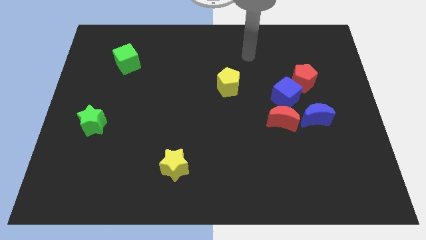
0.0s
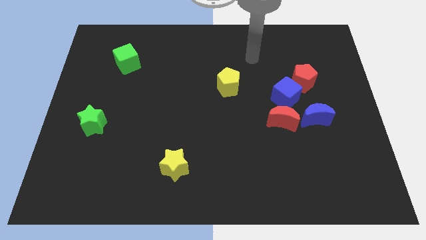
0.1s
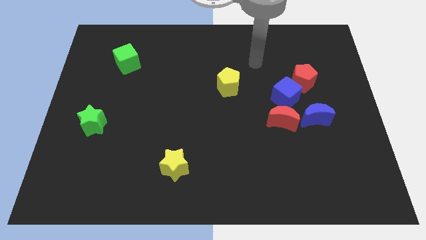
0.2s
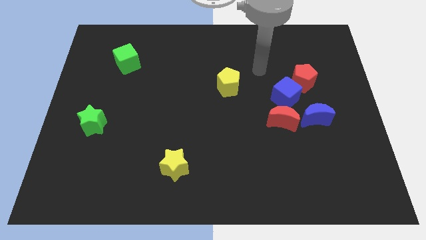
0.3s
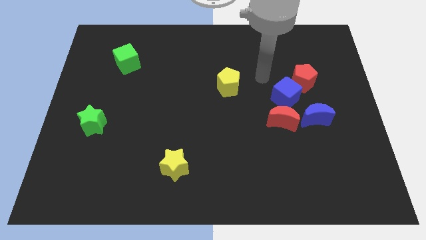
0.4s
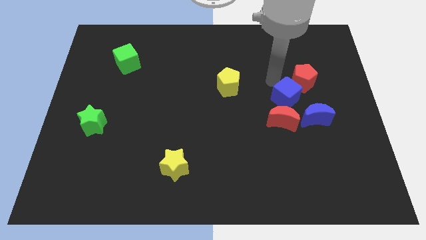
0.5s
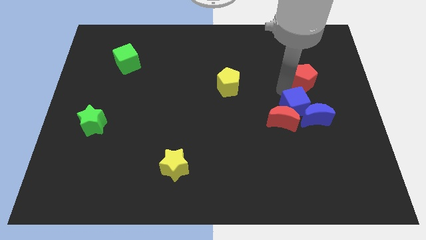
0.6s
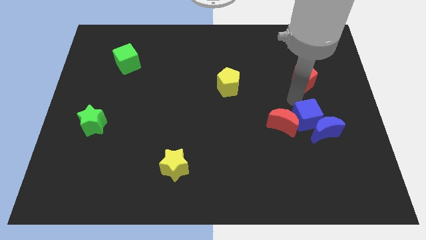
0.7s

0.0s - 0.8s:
move the red pentagon away from the blue cube

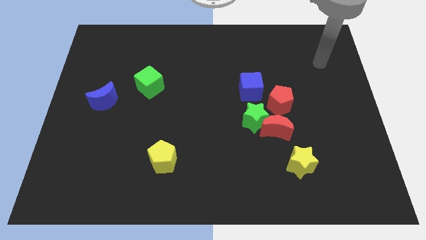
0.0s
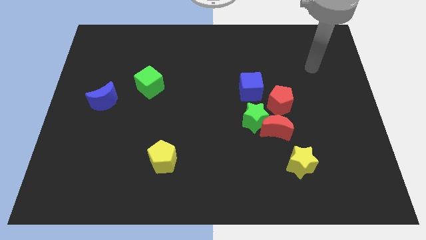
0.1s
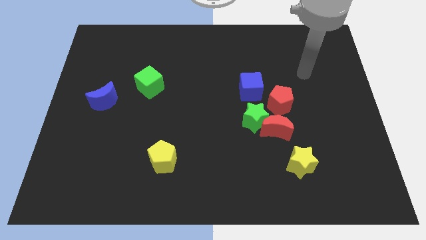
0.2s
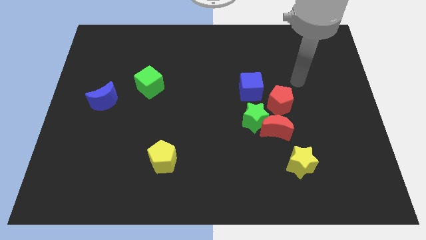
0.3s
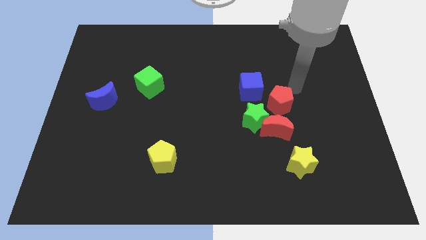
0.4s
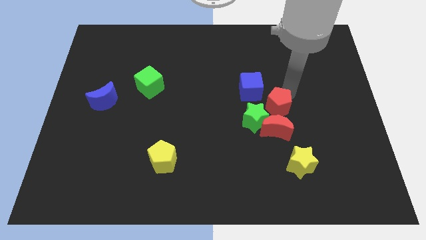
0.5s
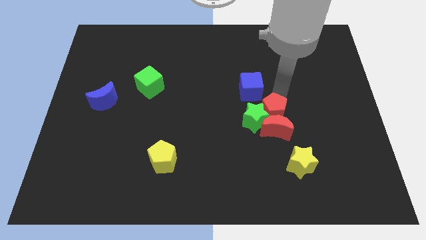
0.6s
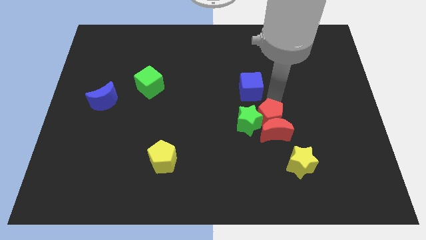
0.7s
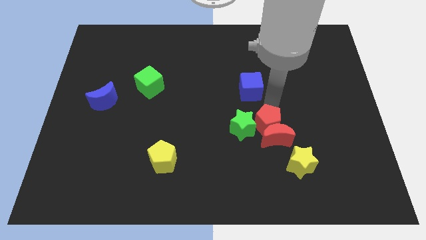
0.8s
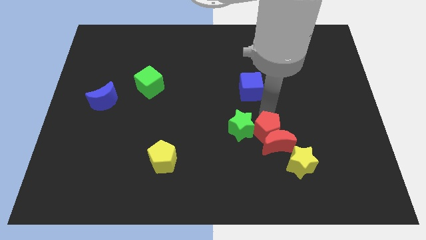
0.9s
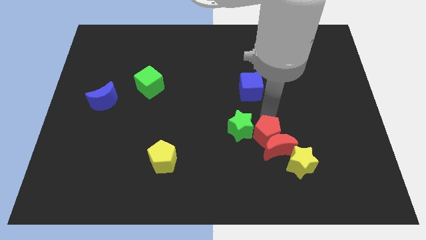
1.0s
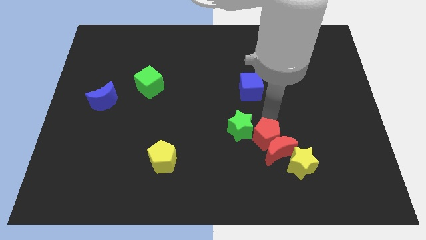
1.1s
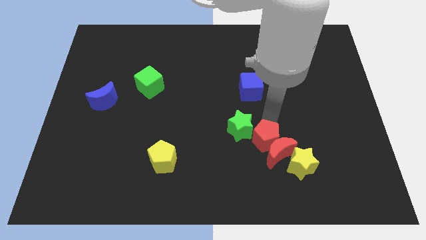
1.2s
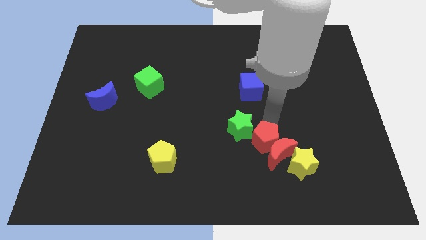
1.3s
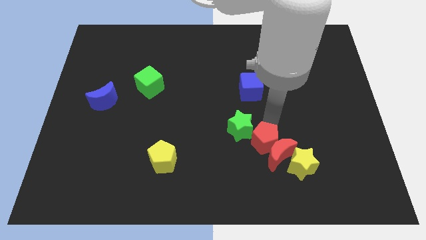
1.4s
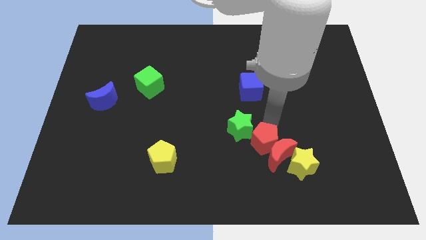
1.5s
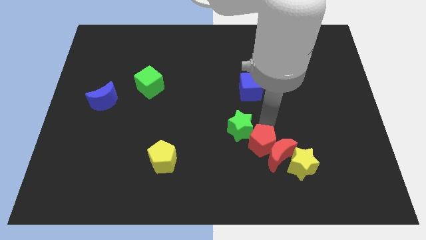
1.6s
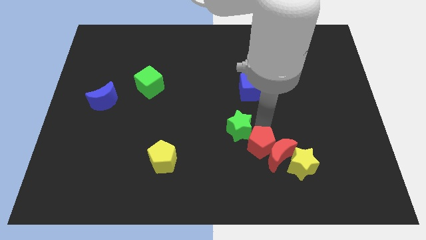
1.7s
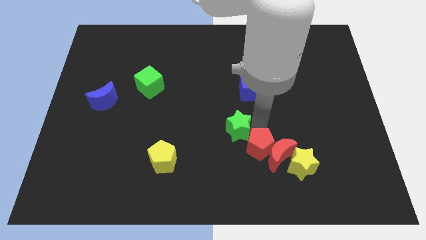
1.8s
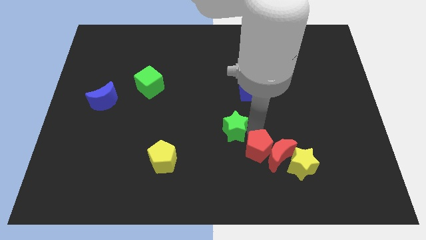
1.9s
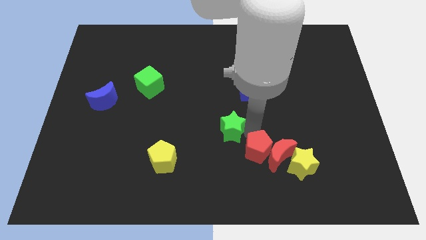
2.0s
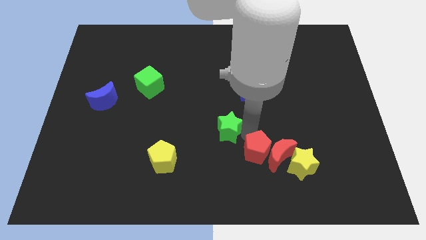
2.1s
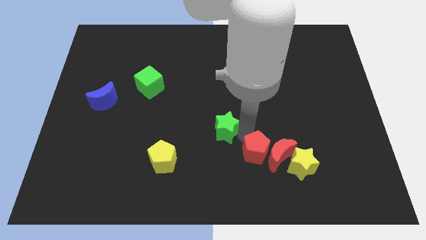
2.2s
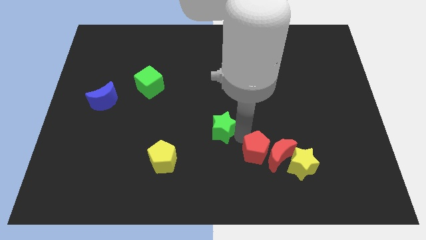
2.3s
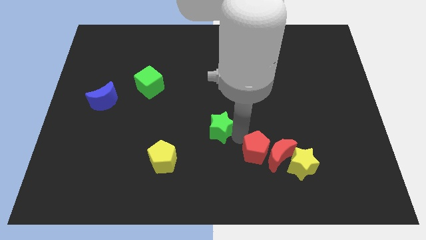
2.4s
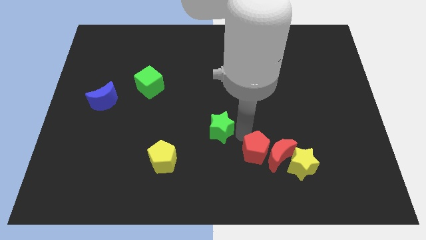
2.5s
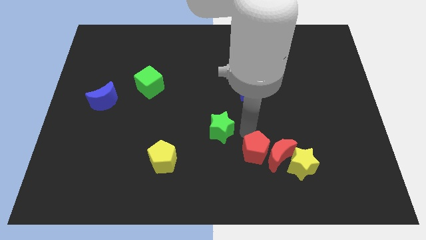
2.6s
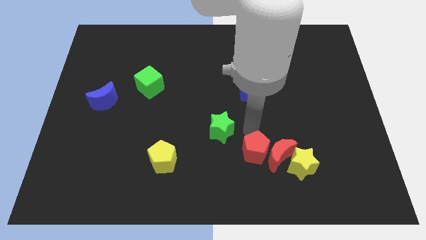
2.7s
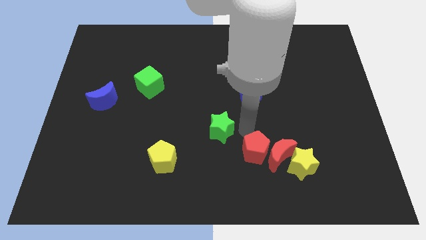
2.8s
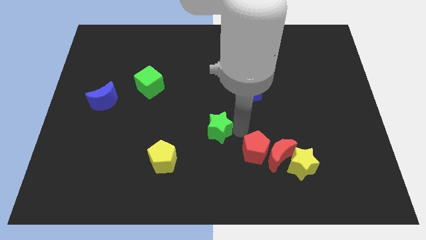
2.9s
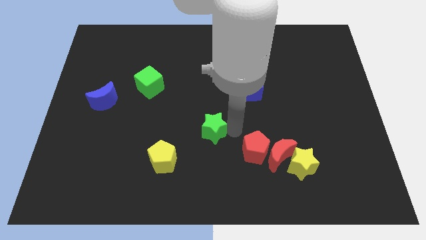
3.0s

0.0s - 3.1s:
pull the green star apart from the group of blocks

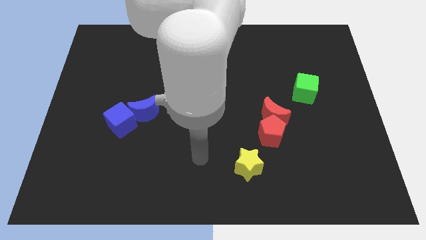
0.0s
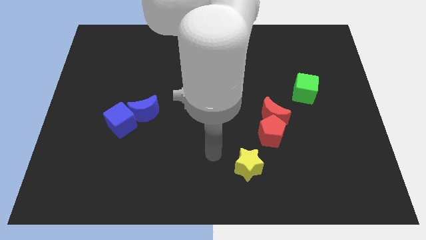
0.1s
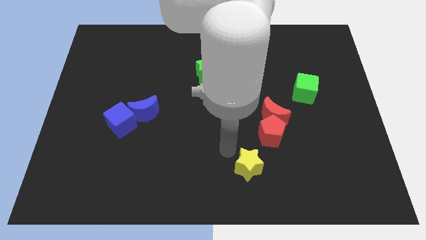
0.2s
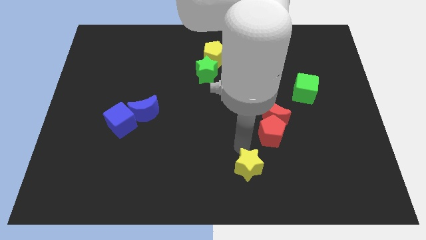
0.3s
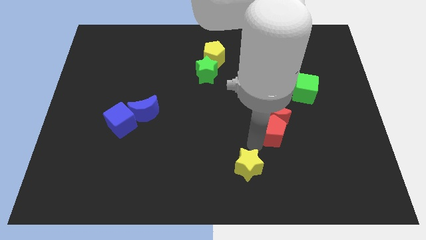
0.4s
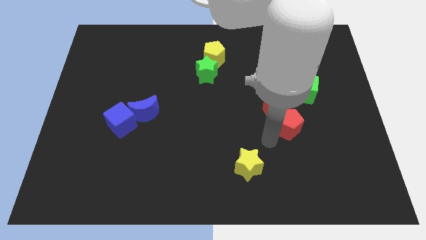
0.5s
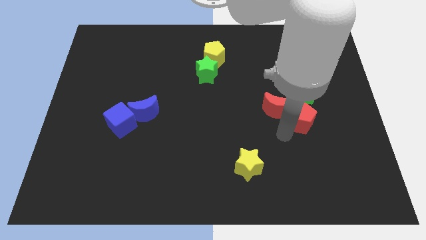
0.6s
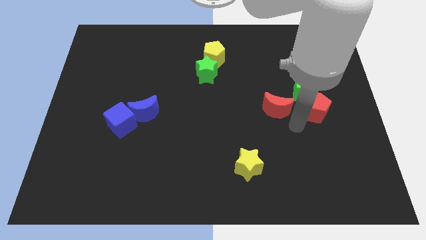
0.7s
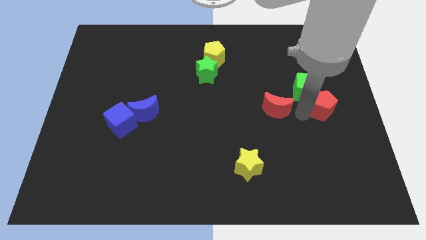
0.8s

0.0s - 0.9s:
separate the red moon from the red pentagon

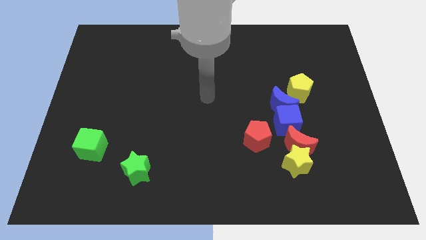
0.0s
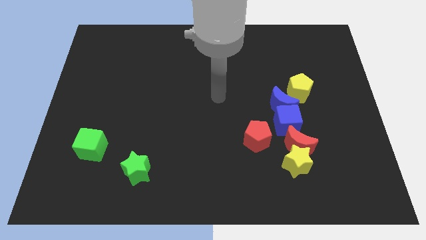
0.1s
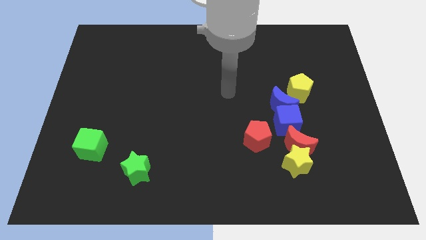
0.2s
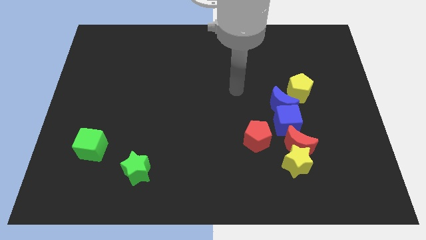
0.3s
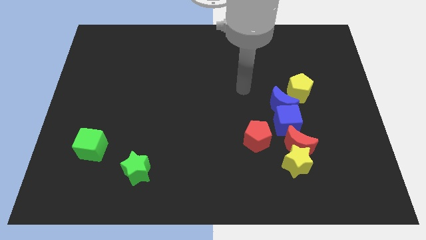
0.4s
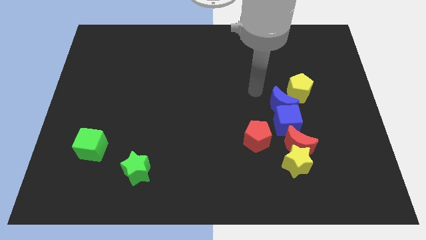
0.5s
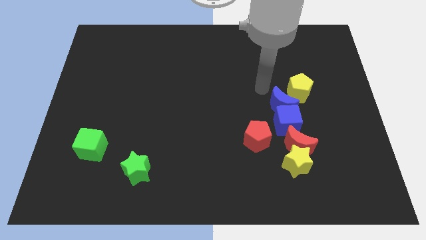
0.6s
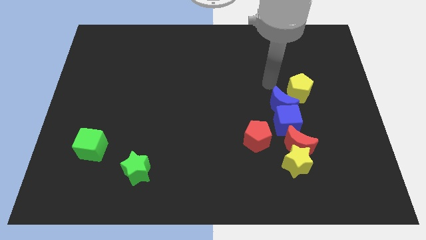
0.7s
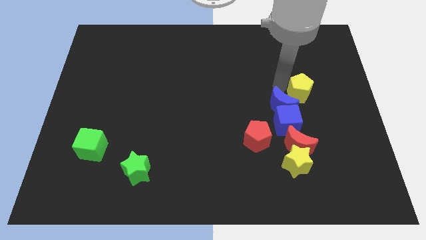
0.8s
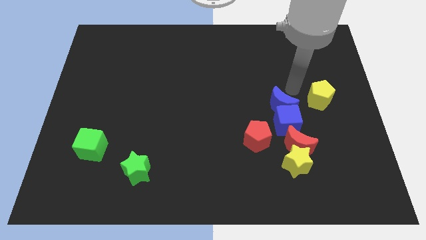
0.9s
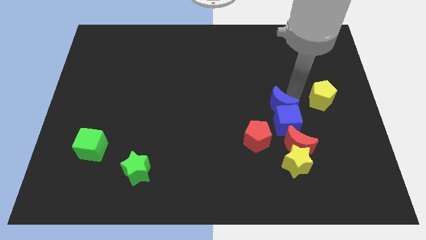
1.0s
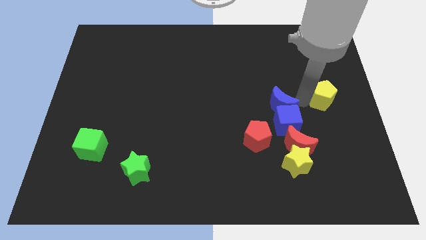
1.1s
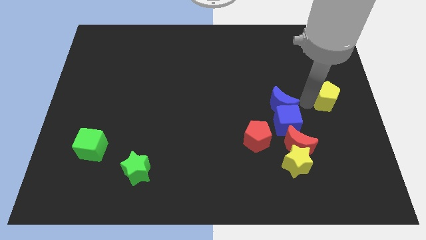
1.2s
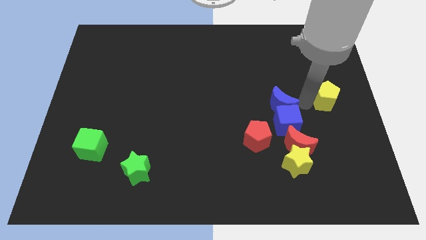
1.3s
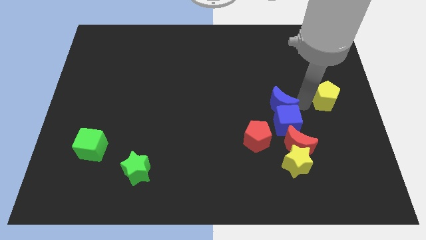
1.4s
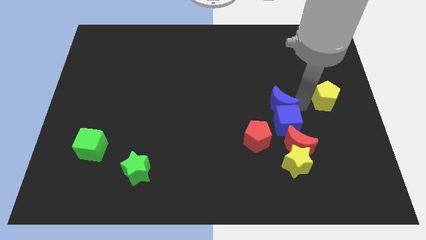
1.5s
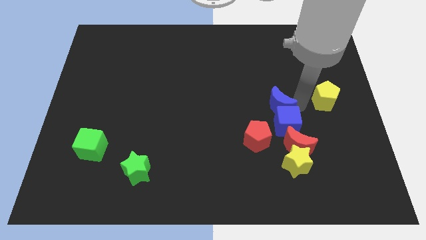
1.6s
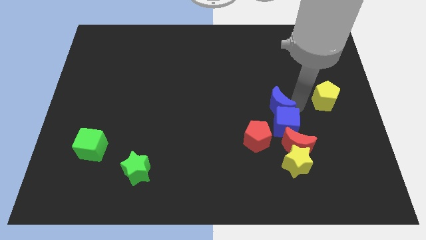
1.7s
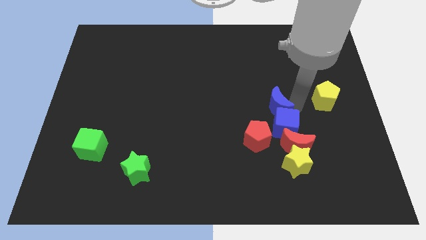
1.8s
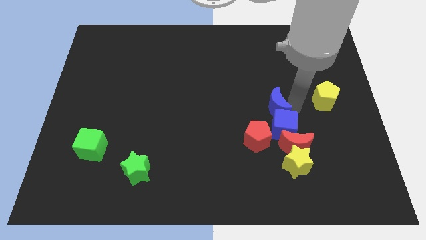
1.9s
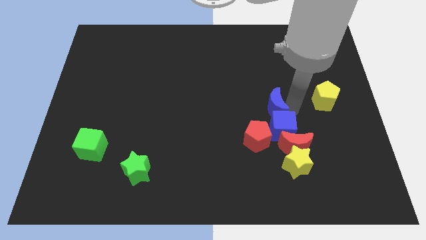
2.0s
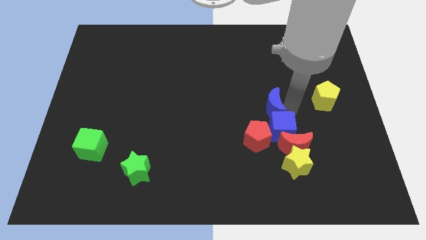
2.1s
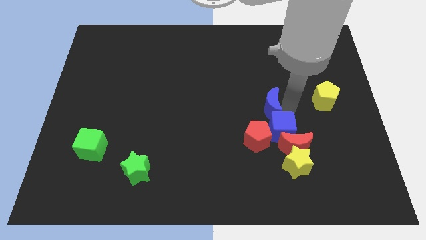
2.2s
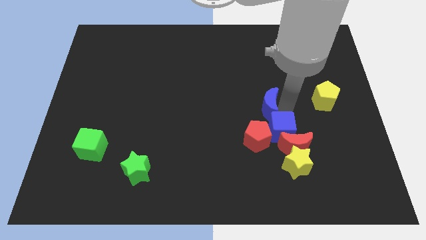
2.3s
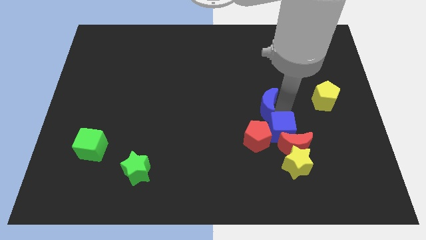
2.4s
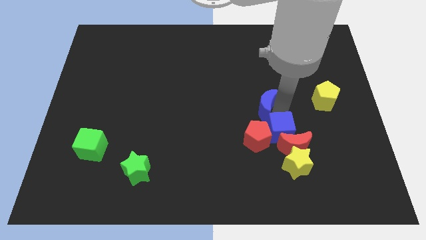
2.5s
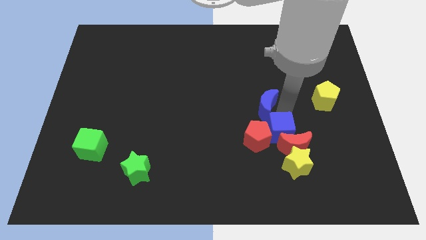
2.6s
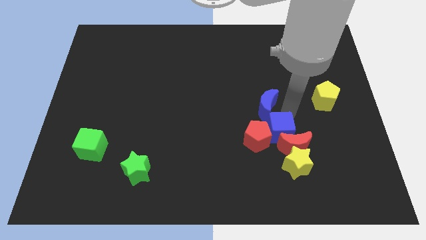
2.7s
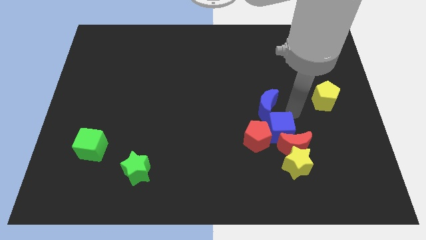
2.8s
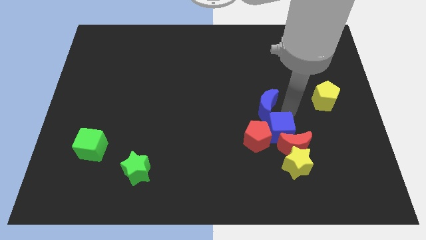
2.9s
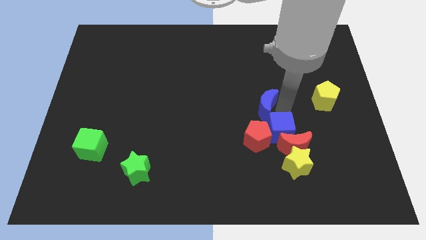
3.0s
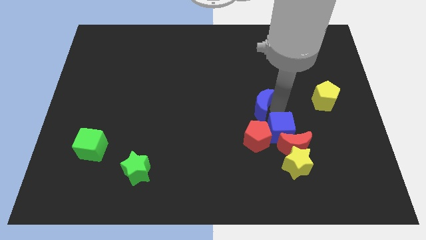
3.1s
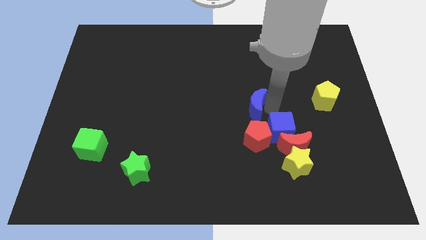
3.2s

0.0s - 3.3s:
pull the blue moon apart from the blue cube and yellow pentagon

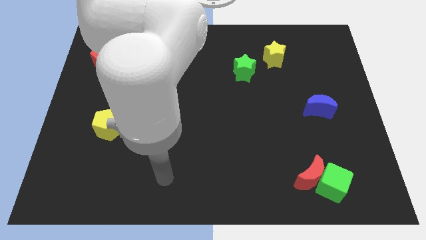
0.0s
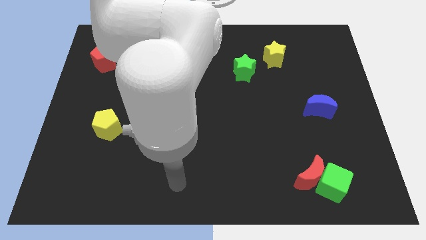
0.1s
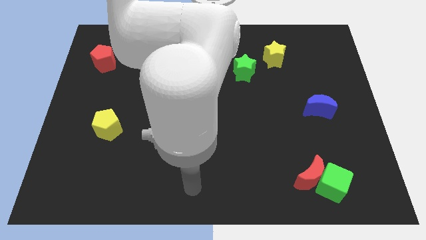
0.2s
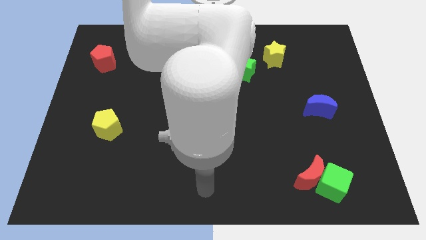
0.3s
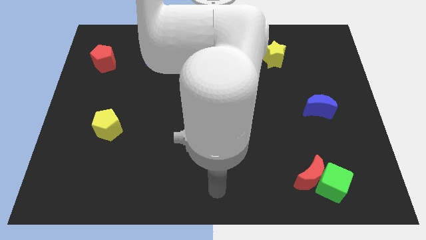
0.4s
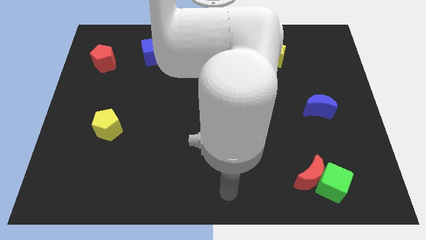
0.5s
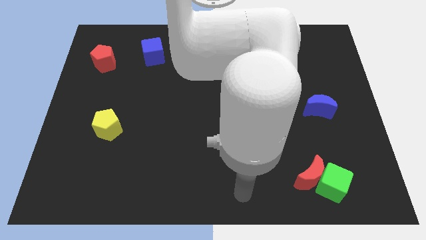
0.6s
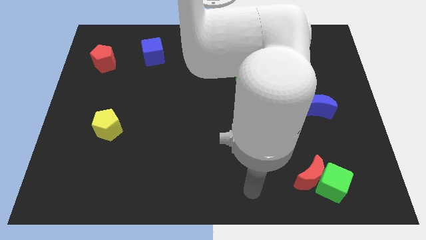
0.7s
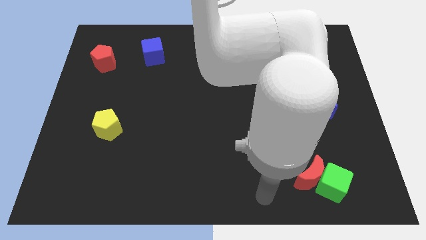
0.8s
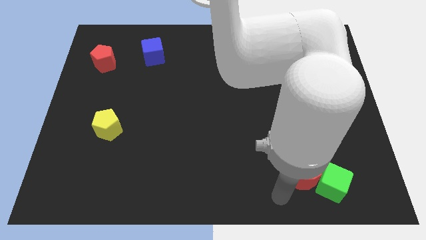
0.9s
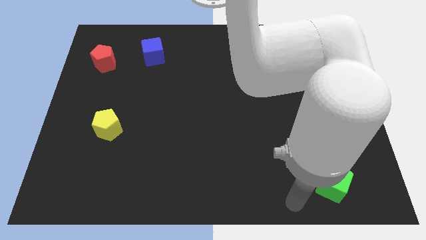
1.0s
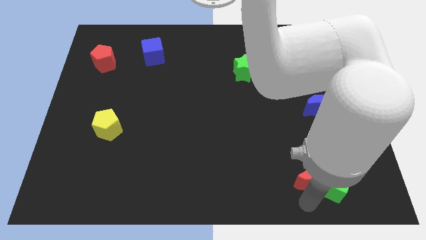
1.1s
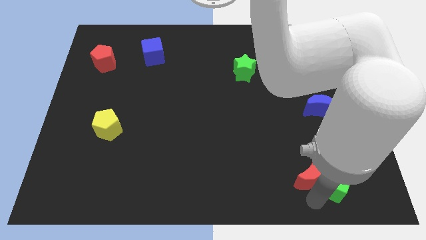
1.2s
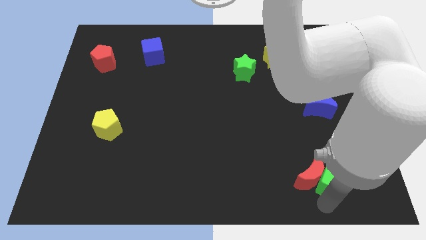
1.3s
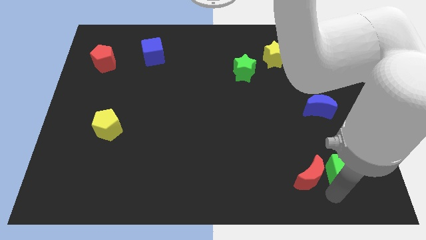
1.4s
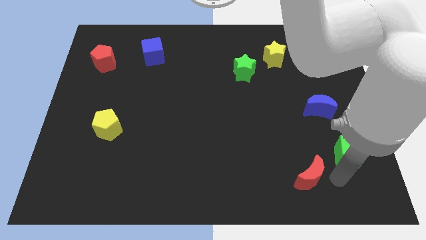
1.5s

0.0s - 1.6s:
separate the red moon from the green cube
